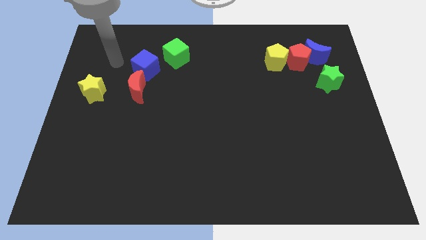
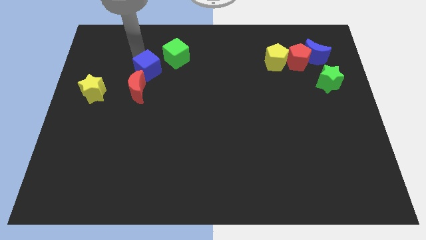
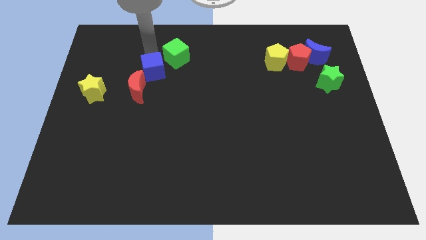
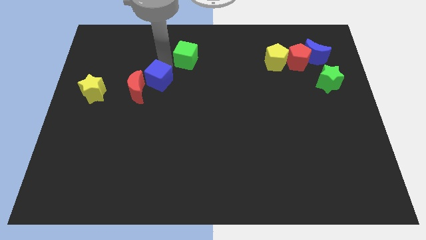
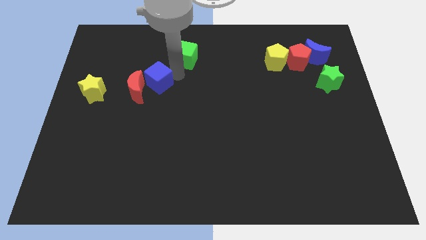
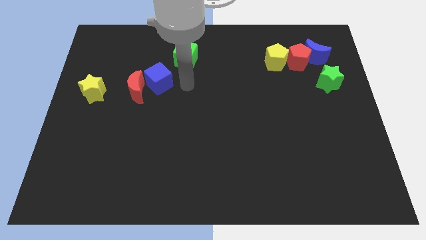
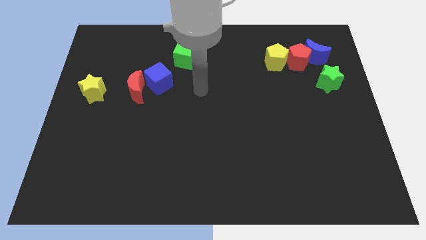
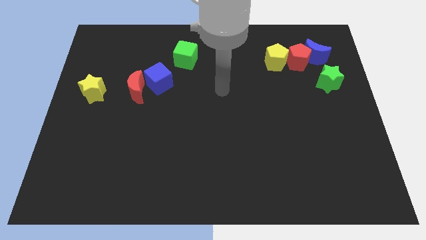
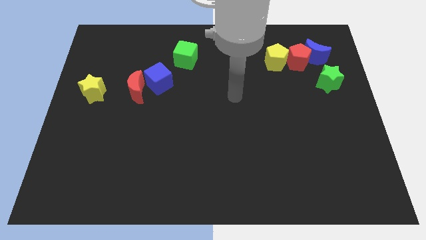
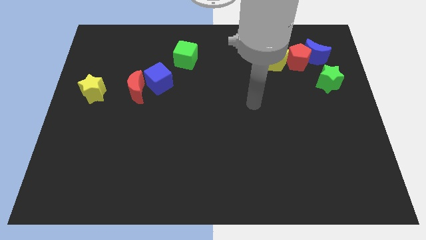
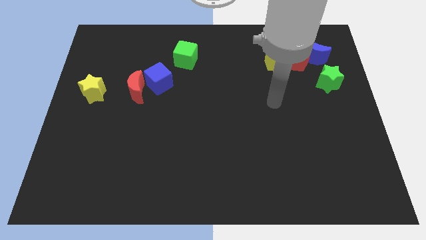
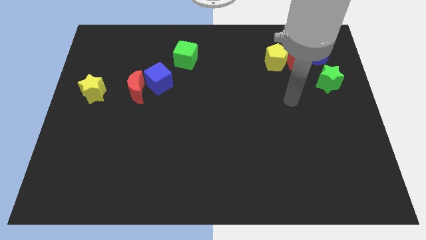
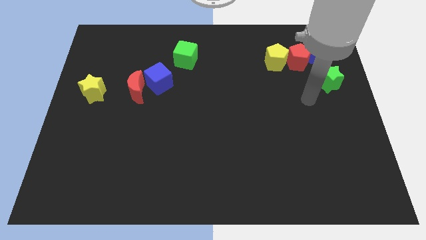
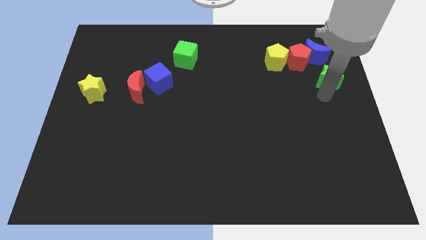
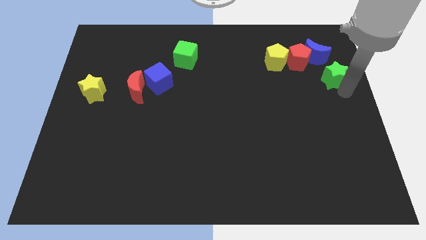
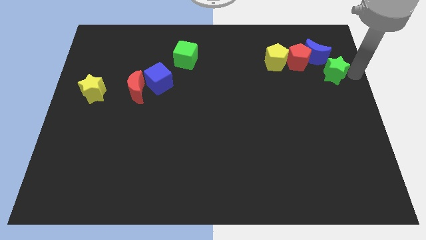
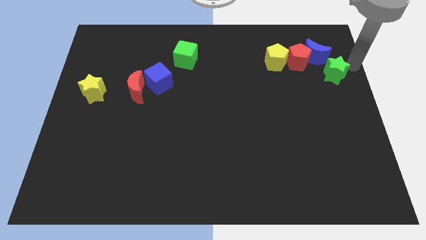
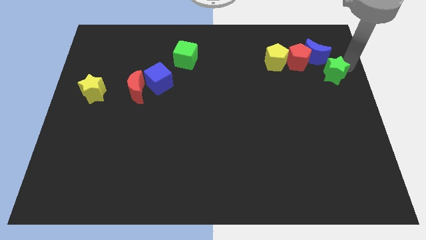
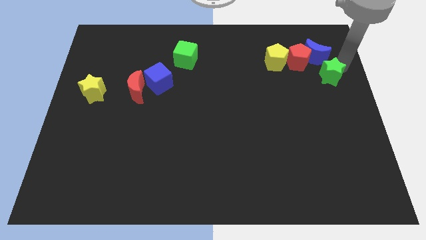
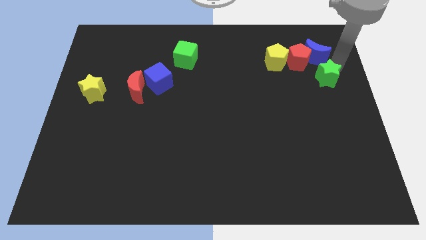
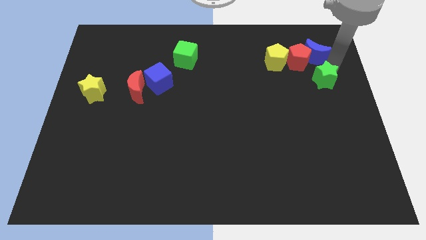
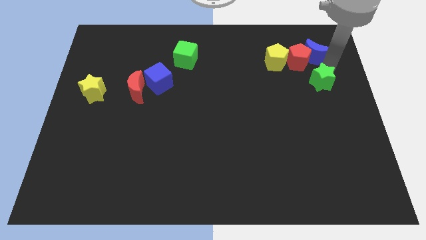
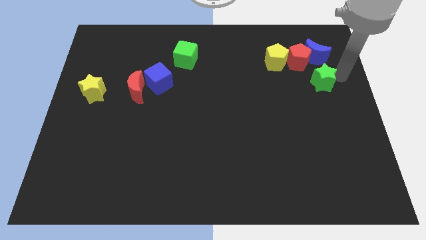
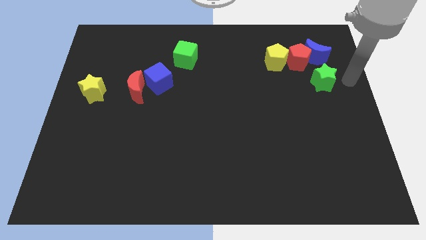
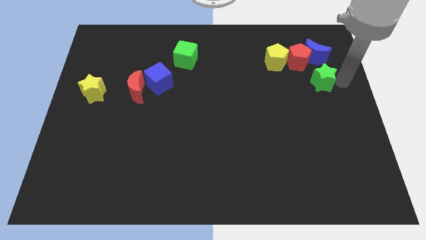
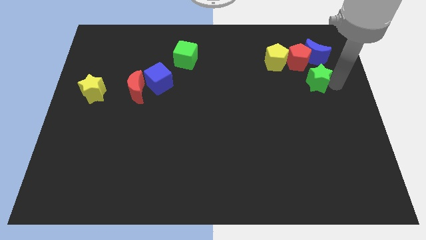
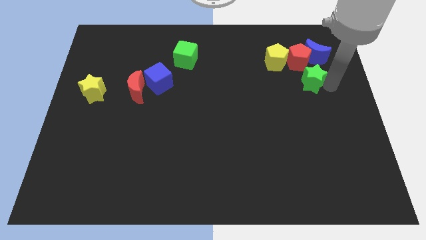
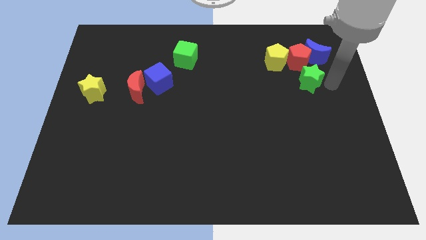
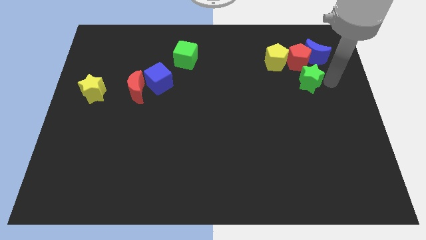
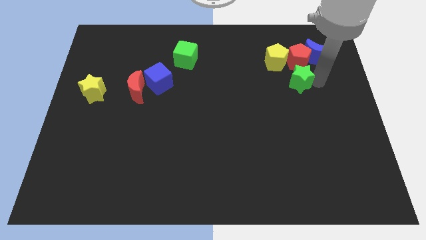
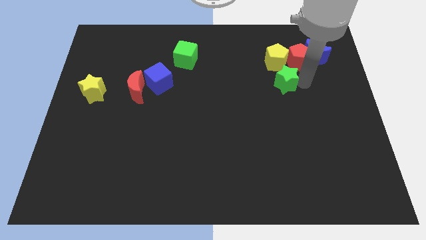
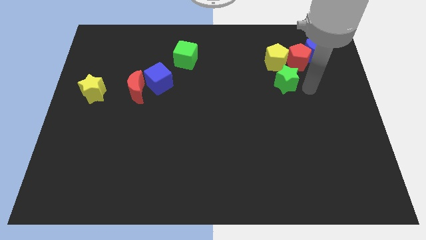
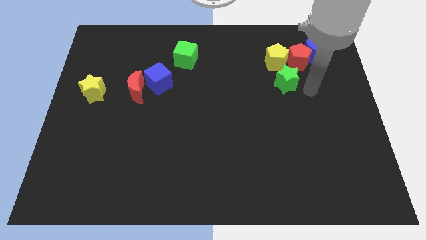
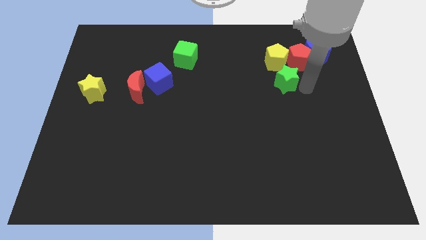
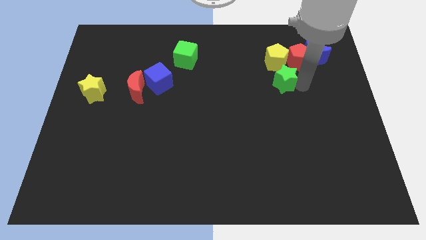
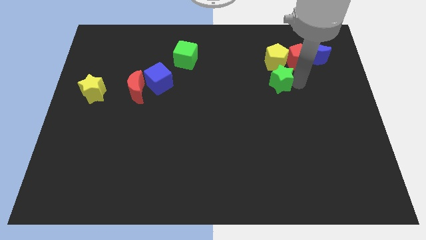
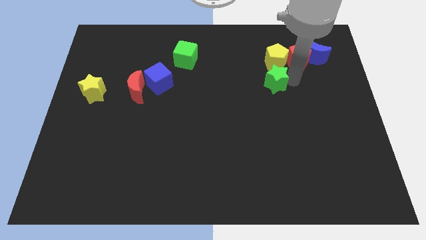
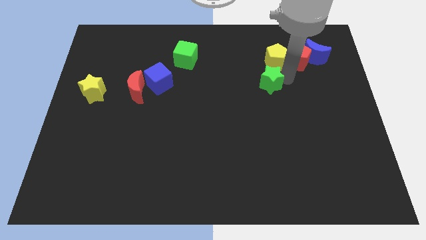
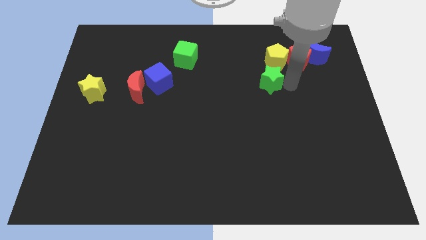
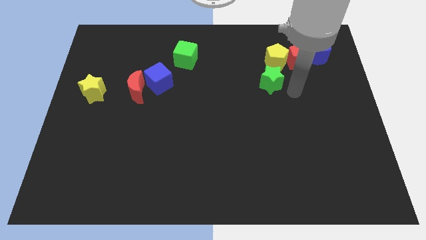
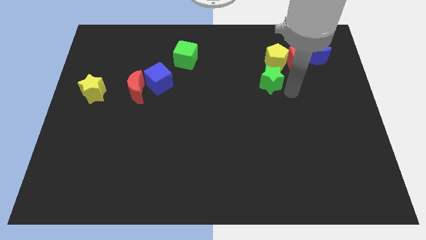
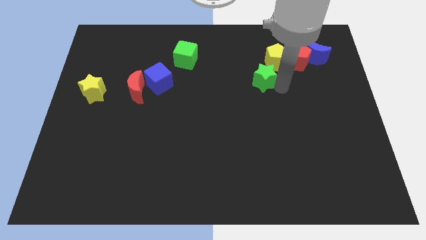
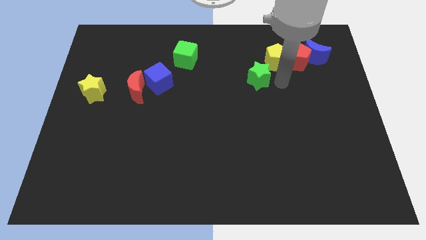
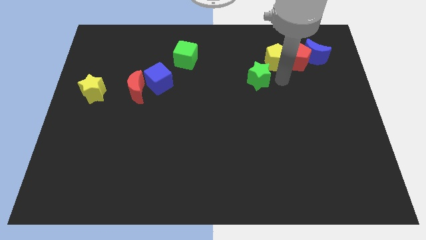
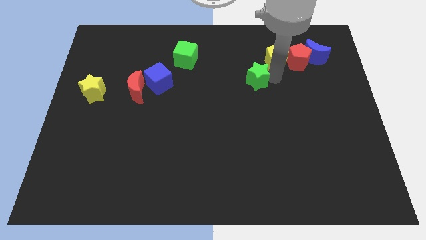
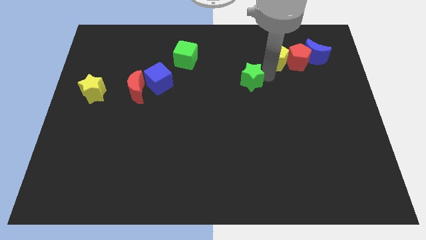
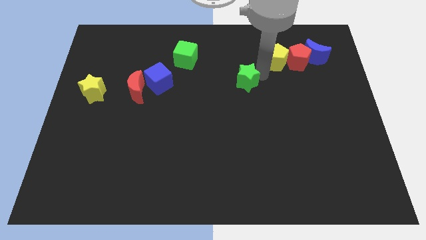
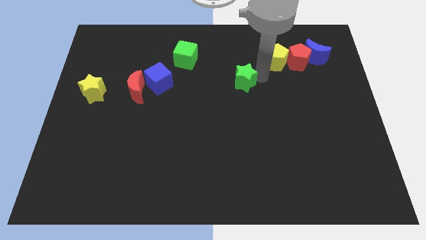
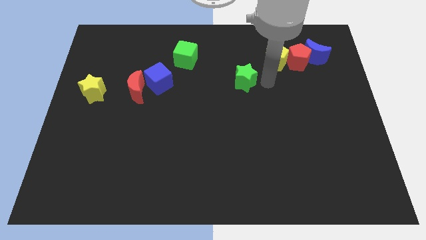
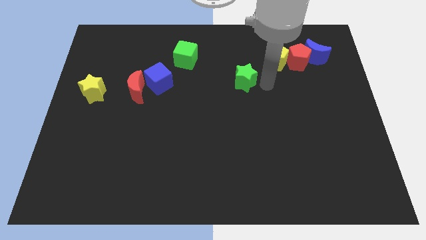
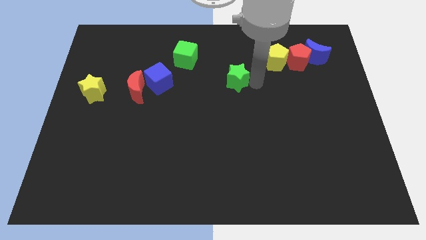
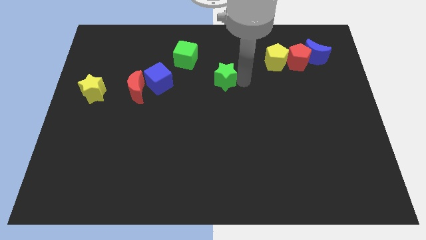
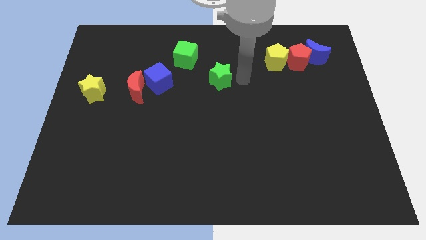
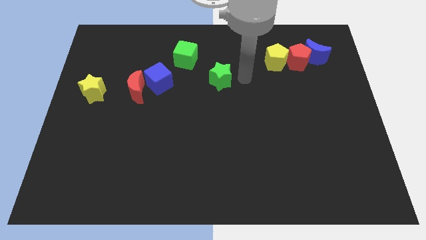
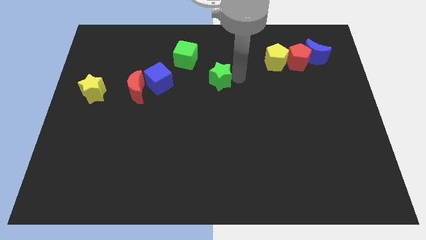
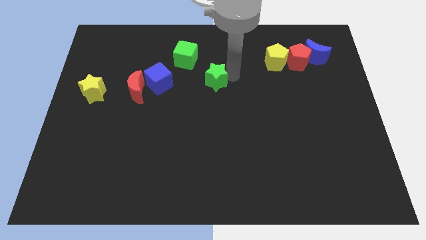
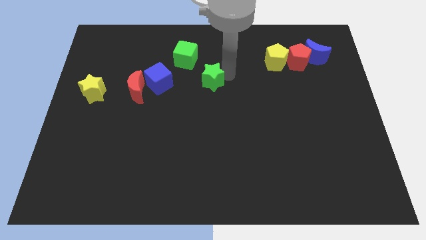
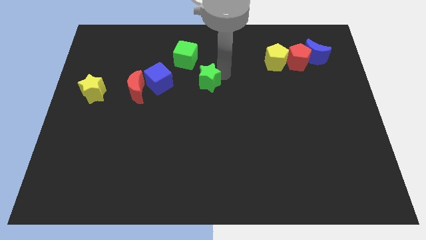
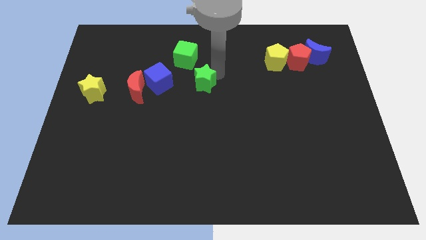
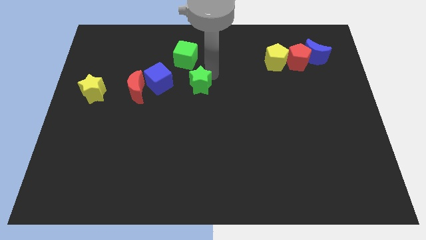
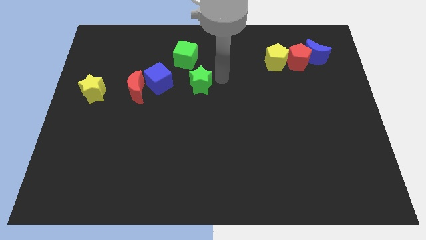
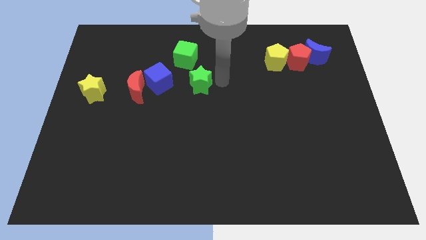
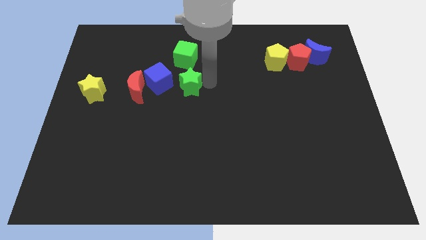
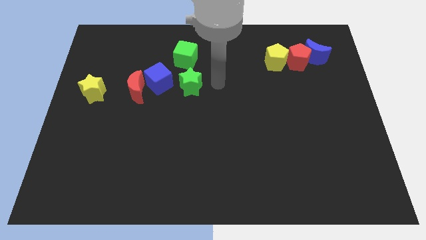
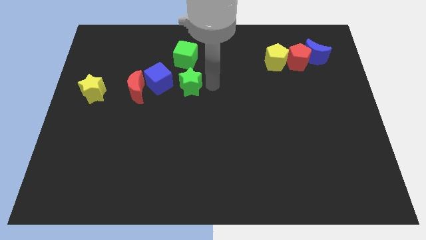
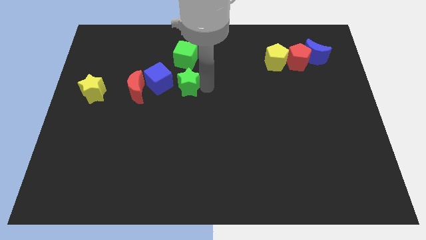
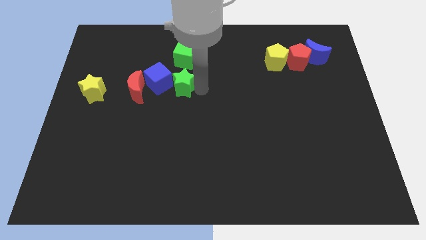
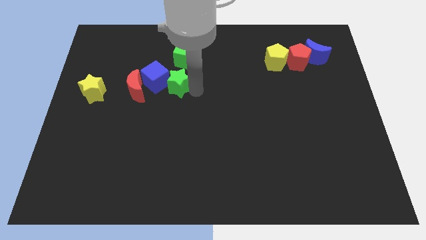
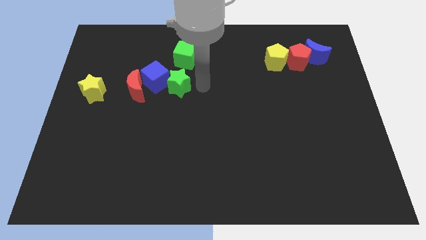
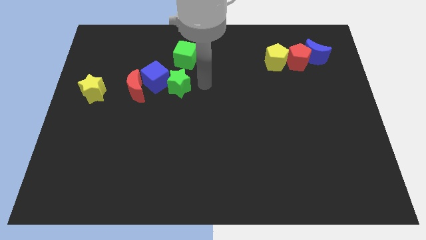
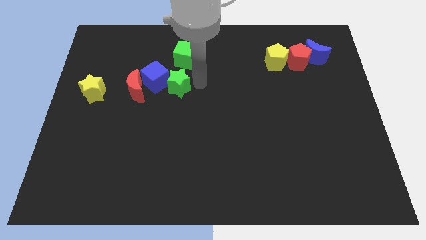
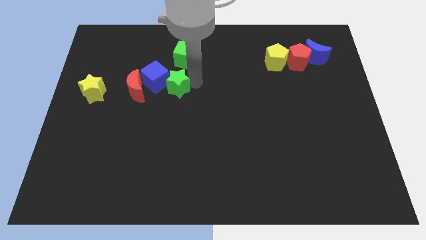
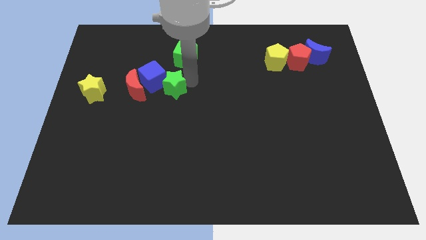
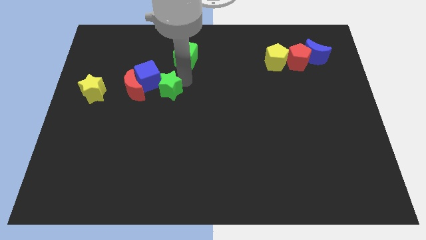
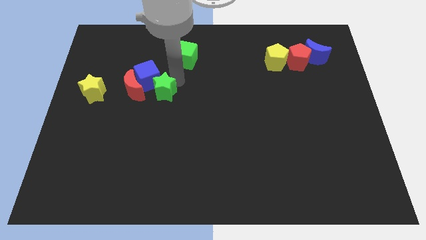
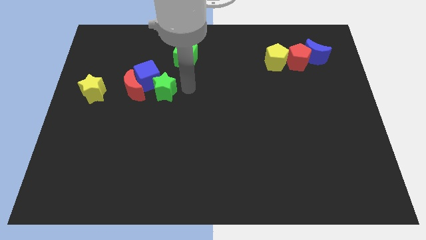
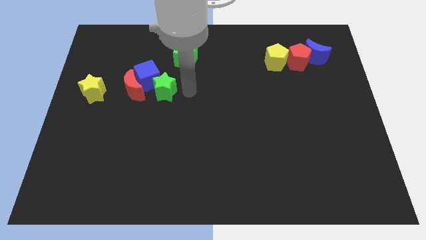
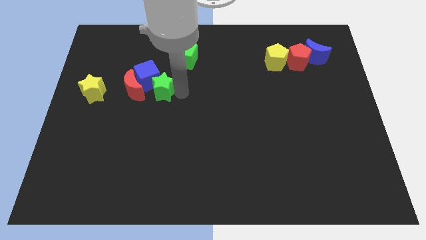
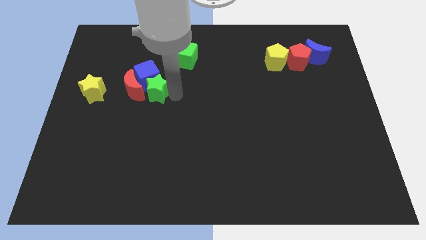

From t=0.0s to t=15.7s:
push the green star towards the red moon
